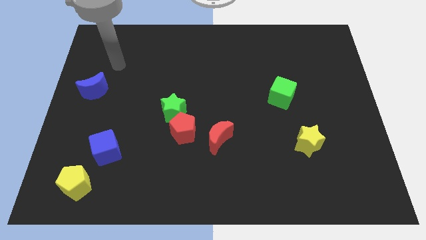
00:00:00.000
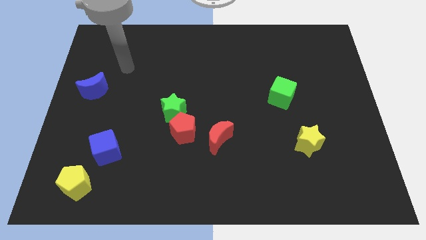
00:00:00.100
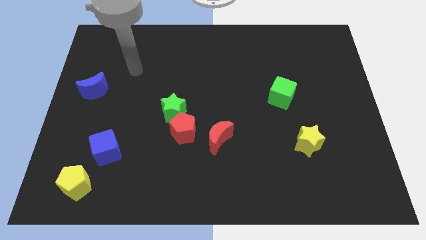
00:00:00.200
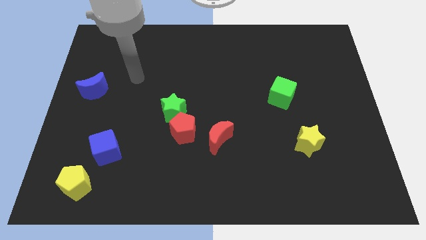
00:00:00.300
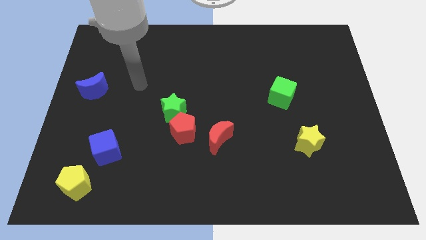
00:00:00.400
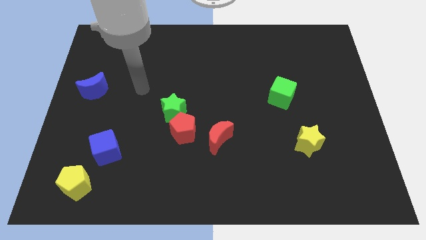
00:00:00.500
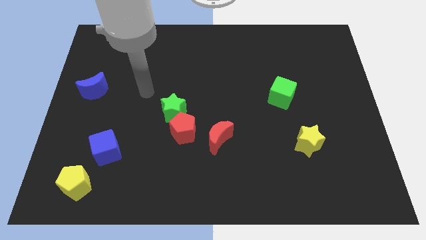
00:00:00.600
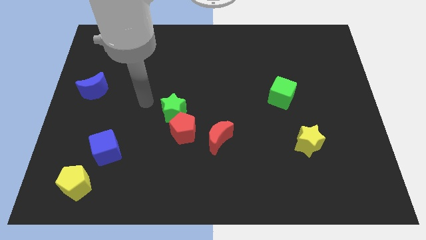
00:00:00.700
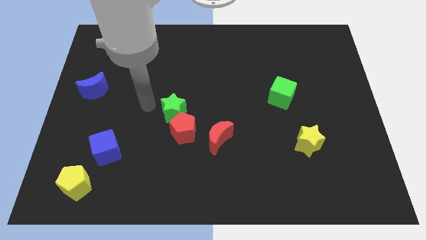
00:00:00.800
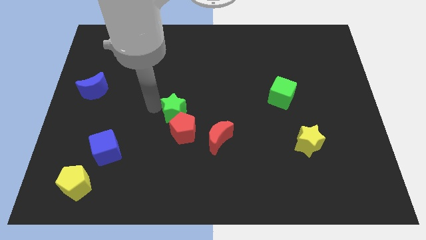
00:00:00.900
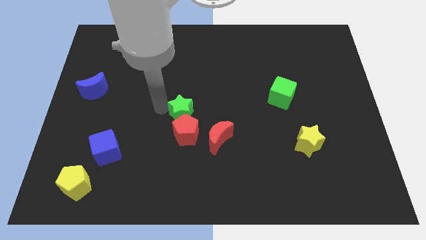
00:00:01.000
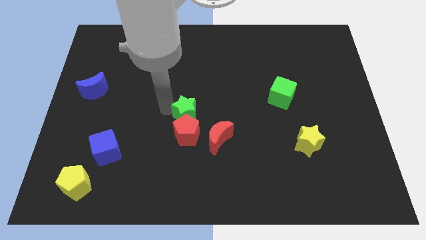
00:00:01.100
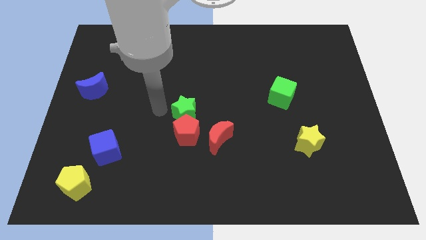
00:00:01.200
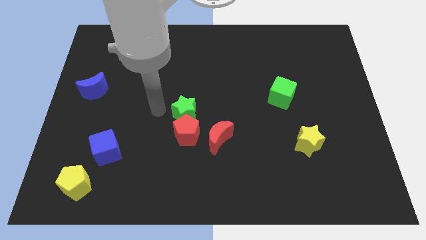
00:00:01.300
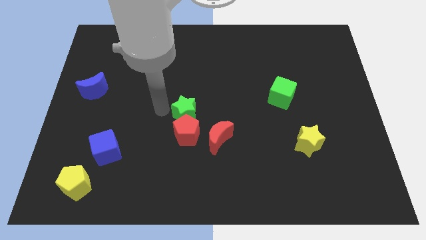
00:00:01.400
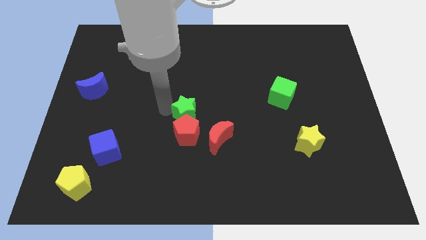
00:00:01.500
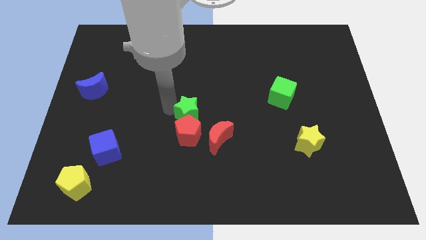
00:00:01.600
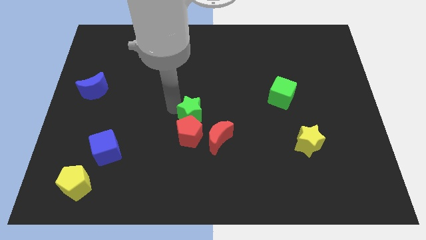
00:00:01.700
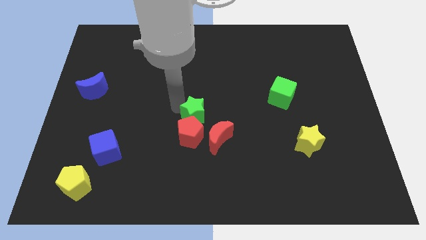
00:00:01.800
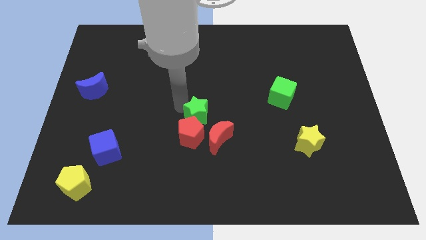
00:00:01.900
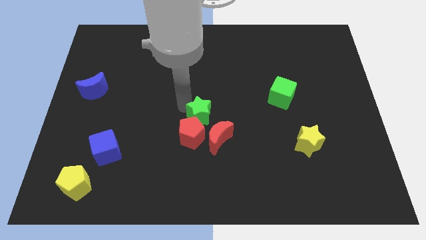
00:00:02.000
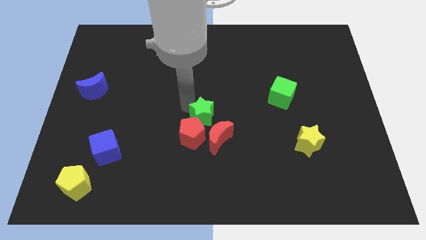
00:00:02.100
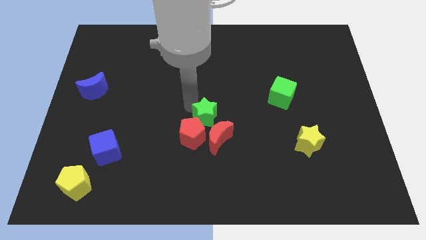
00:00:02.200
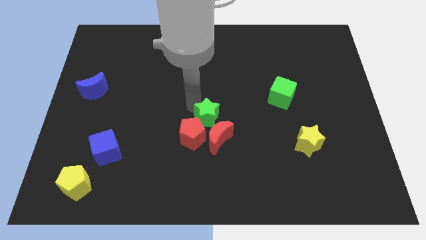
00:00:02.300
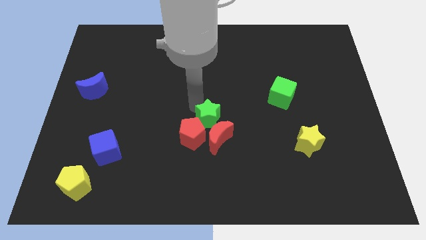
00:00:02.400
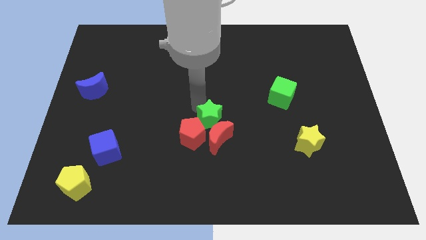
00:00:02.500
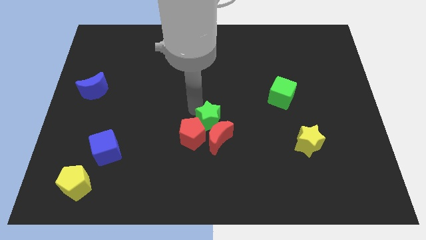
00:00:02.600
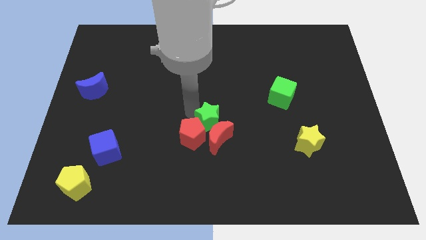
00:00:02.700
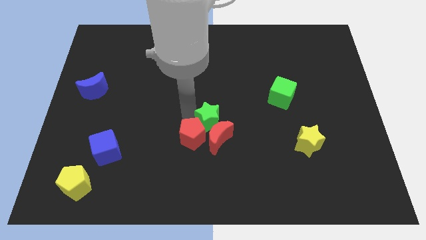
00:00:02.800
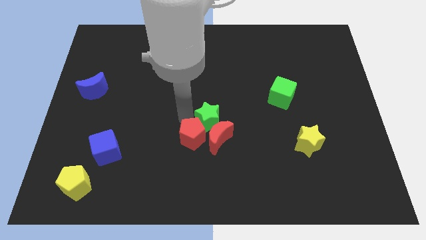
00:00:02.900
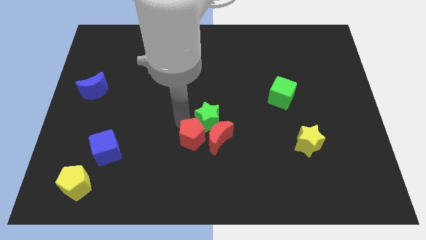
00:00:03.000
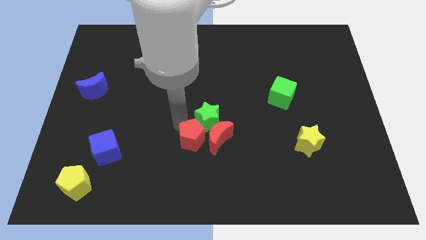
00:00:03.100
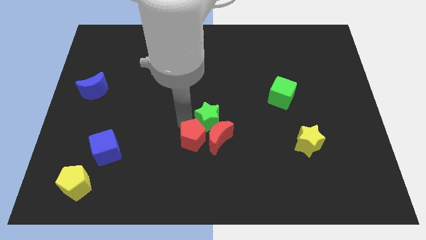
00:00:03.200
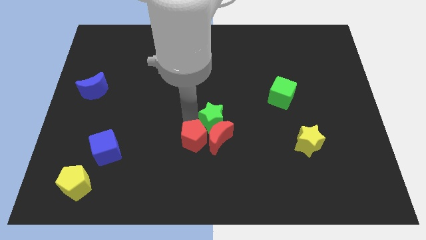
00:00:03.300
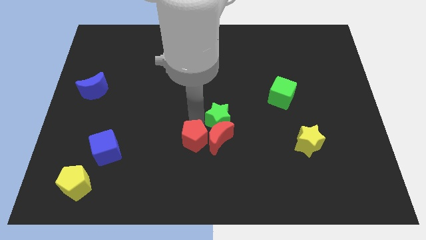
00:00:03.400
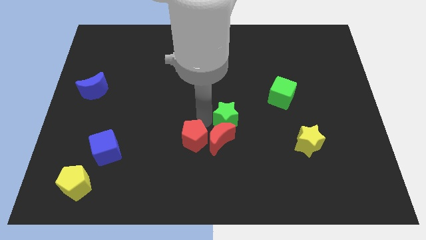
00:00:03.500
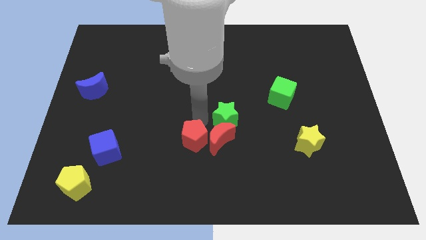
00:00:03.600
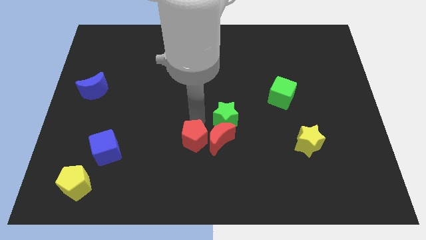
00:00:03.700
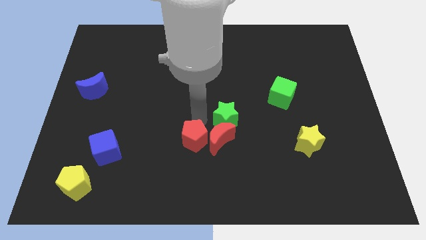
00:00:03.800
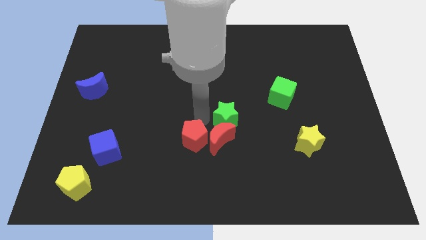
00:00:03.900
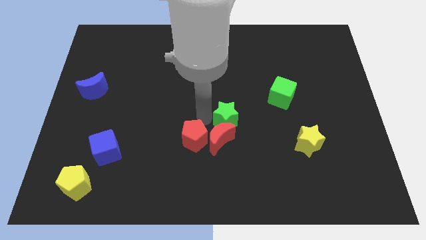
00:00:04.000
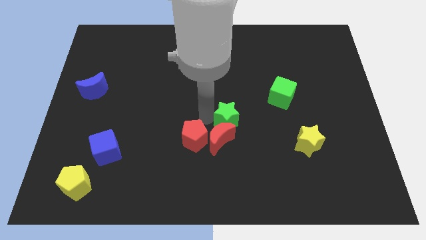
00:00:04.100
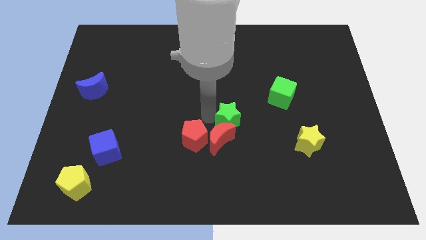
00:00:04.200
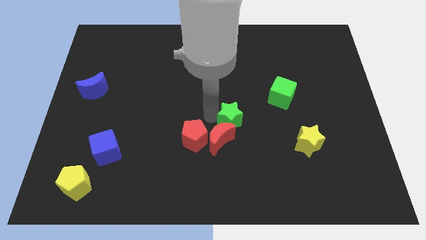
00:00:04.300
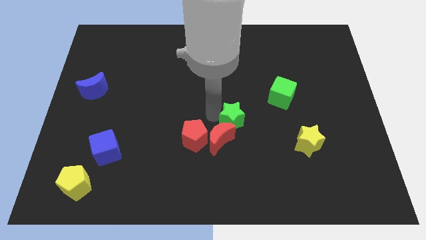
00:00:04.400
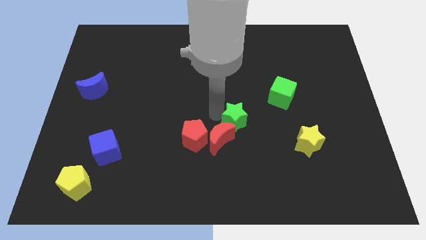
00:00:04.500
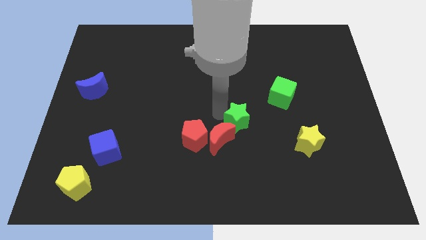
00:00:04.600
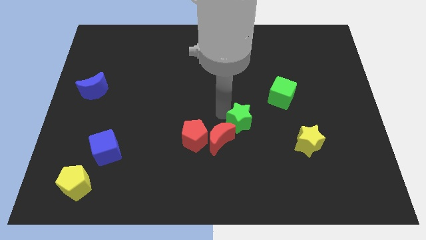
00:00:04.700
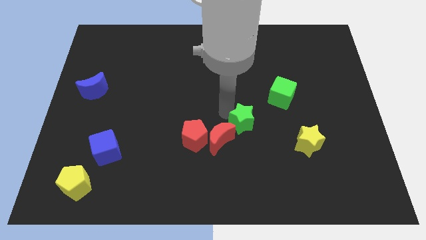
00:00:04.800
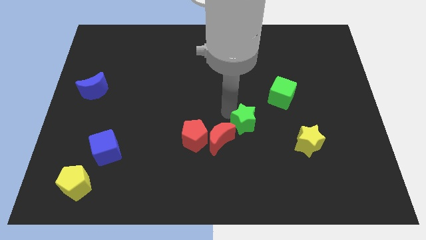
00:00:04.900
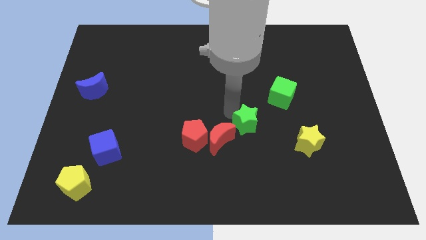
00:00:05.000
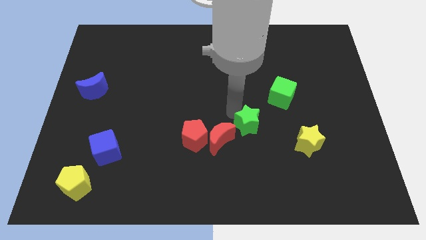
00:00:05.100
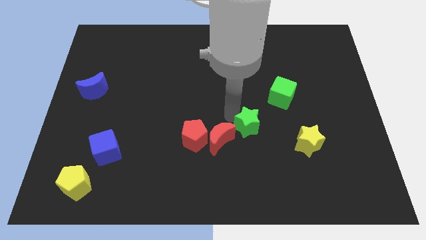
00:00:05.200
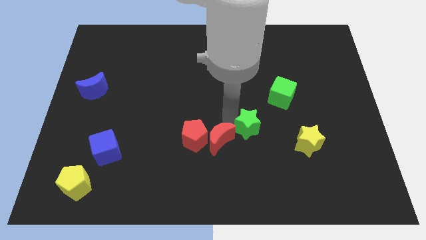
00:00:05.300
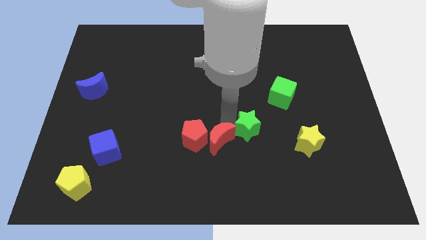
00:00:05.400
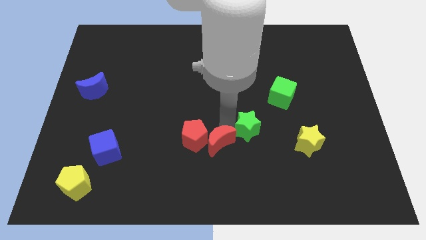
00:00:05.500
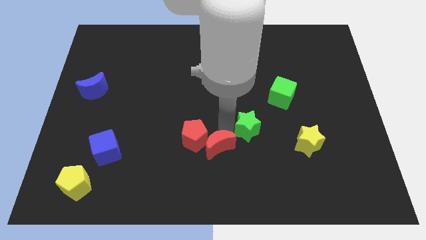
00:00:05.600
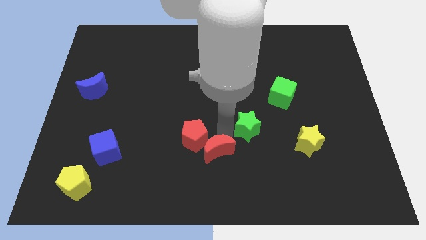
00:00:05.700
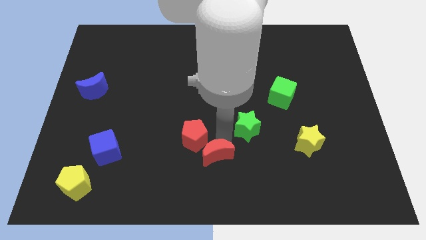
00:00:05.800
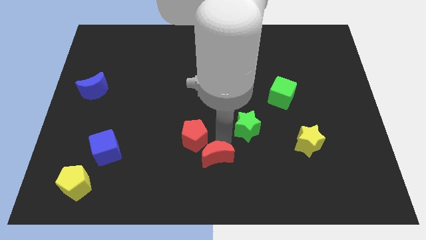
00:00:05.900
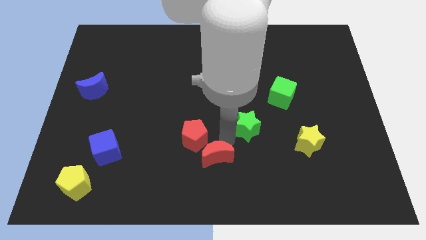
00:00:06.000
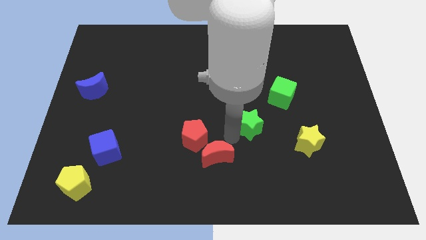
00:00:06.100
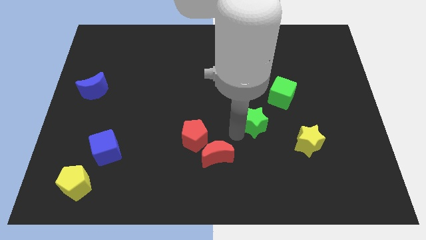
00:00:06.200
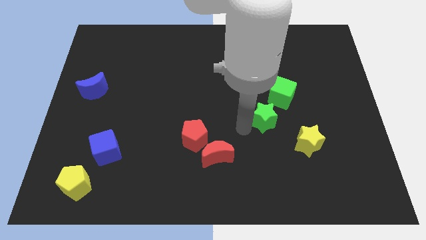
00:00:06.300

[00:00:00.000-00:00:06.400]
slide the green star to the right

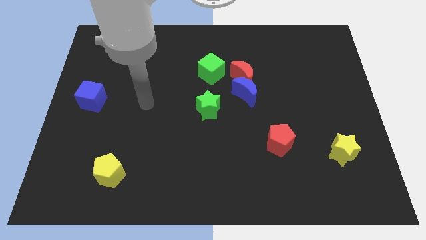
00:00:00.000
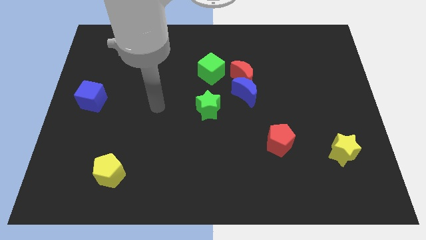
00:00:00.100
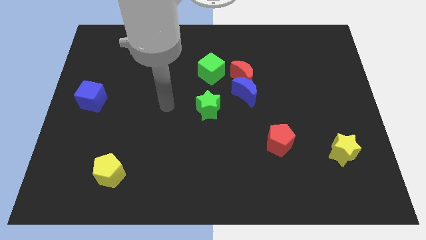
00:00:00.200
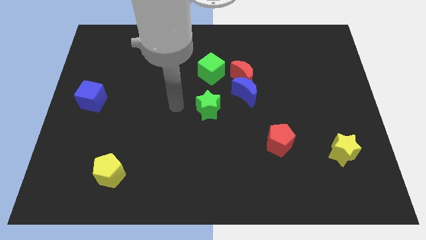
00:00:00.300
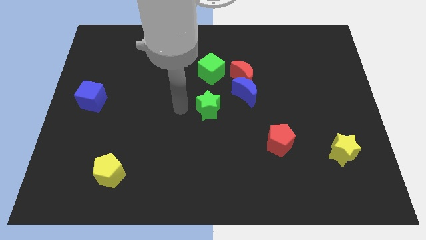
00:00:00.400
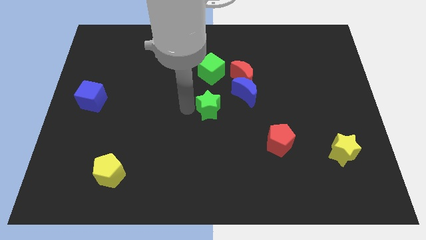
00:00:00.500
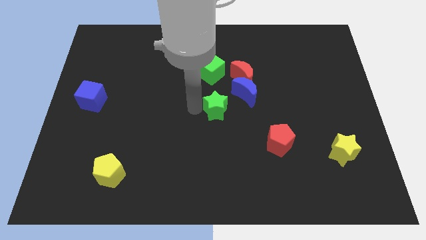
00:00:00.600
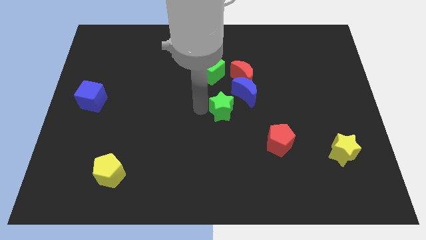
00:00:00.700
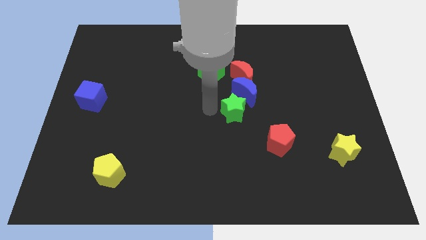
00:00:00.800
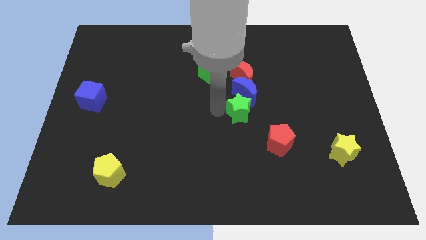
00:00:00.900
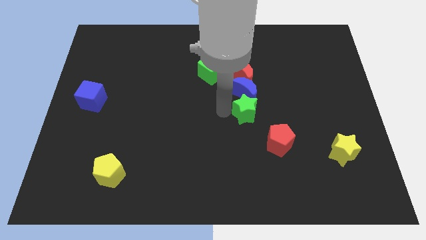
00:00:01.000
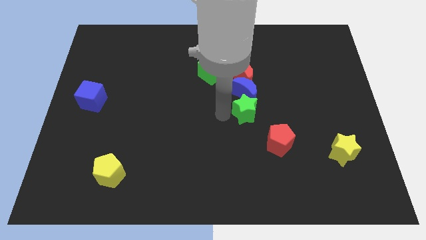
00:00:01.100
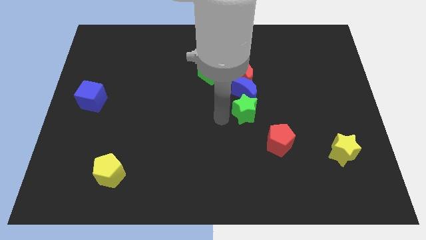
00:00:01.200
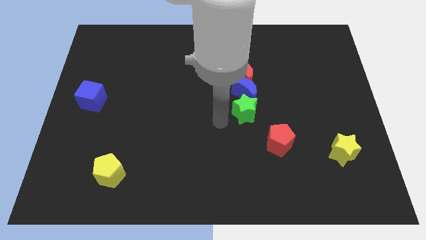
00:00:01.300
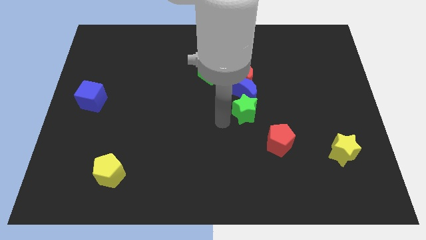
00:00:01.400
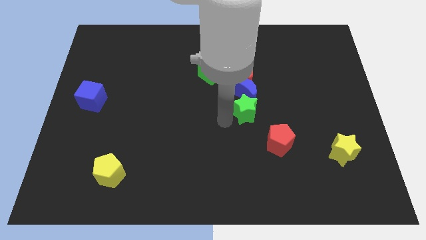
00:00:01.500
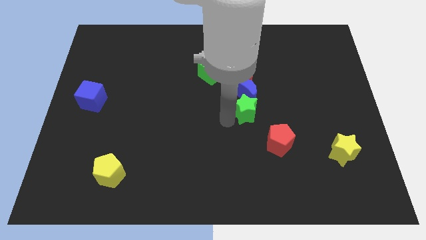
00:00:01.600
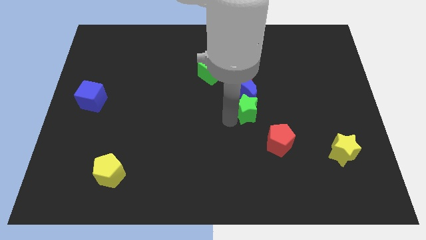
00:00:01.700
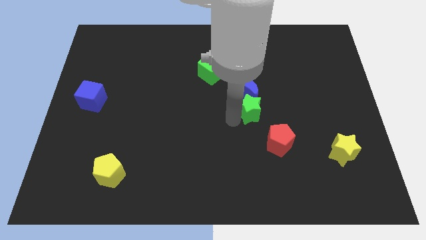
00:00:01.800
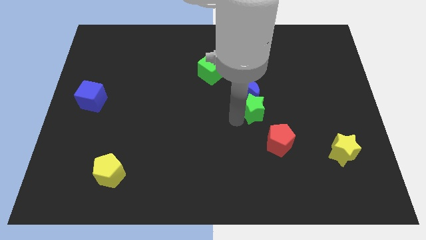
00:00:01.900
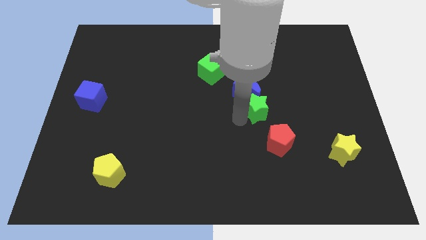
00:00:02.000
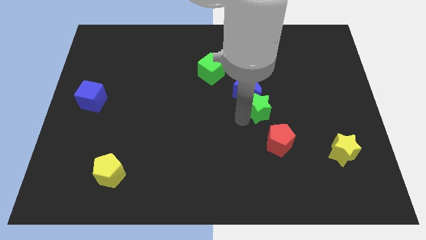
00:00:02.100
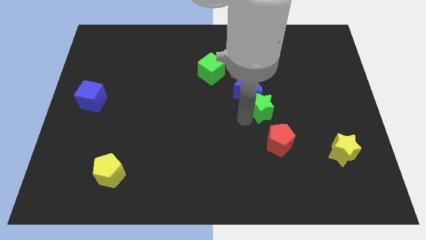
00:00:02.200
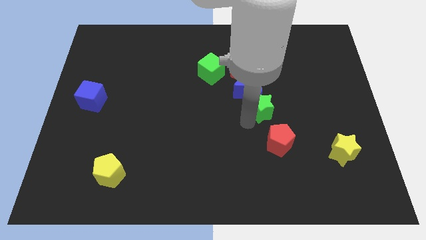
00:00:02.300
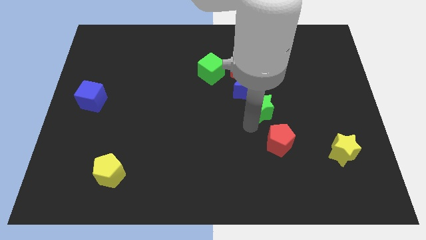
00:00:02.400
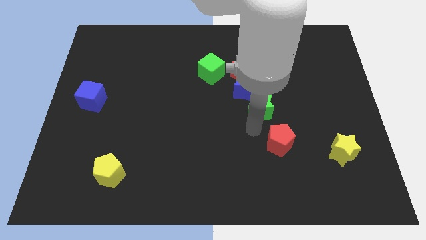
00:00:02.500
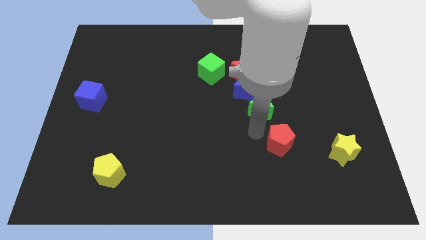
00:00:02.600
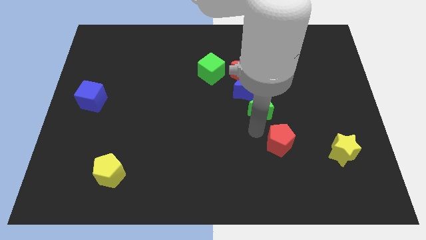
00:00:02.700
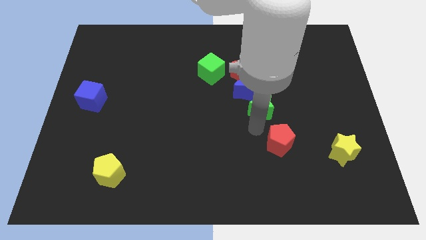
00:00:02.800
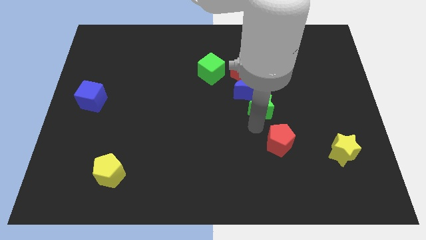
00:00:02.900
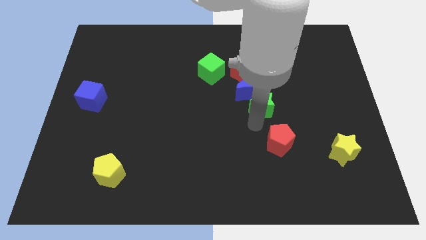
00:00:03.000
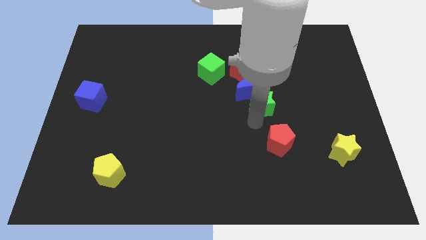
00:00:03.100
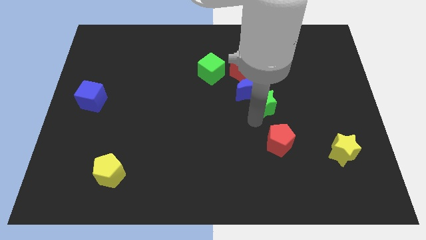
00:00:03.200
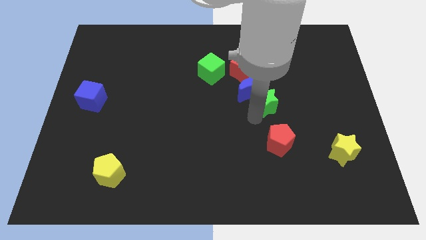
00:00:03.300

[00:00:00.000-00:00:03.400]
move the green star up and right slightly
